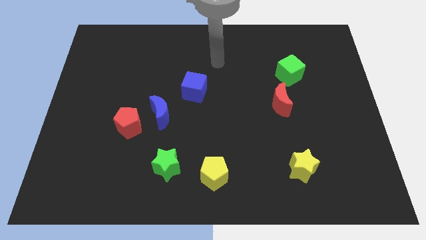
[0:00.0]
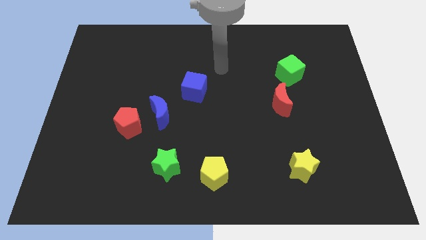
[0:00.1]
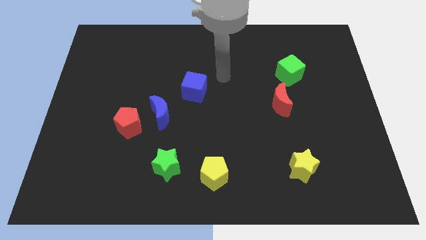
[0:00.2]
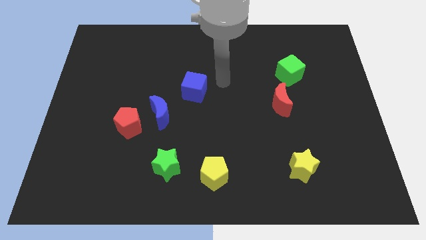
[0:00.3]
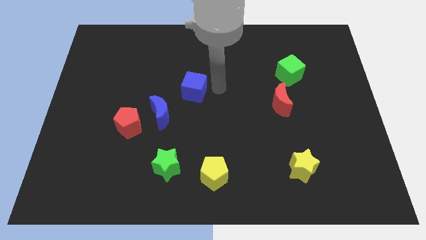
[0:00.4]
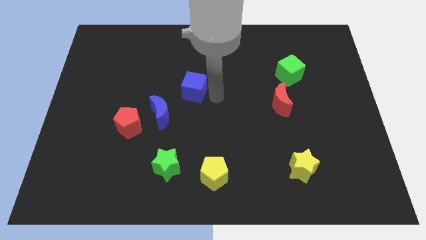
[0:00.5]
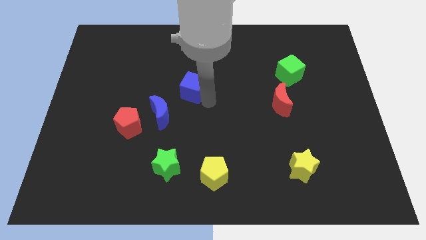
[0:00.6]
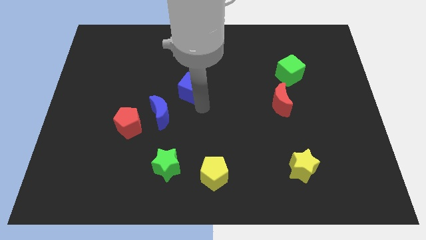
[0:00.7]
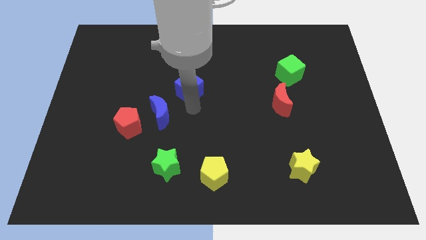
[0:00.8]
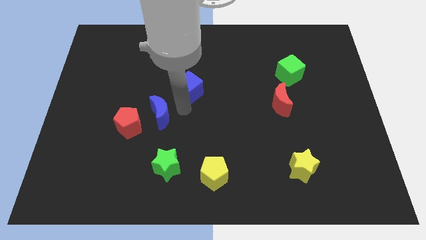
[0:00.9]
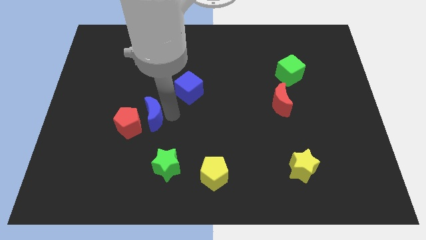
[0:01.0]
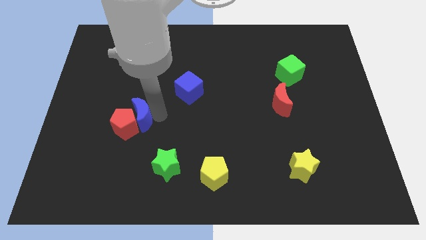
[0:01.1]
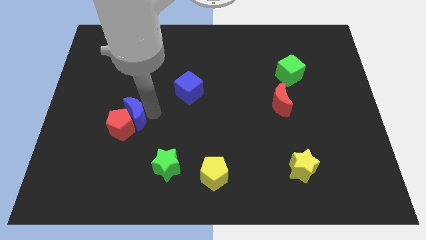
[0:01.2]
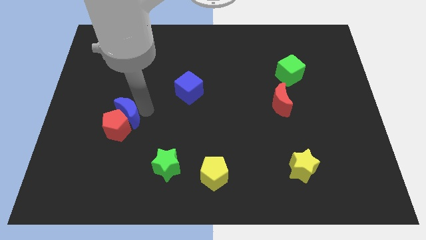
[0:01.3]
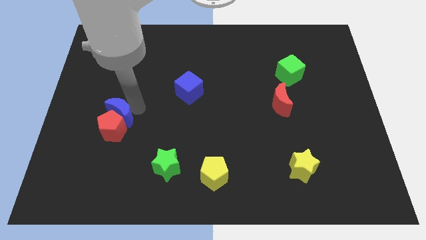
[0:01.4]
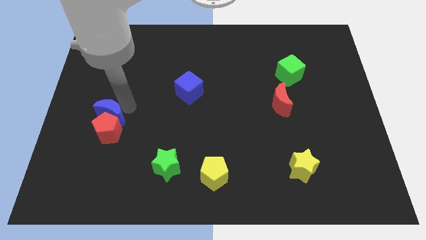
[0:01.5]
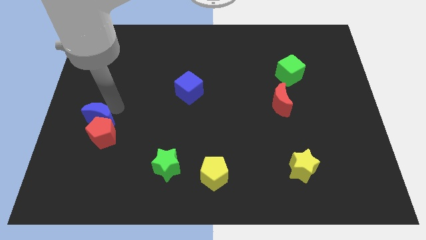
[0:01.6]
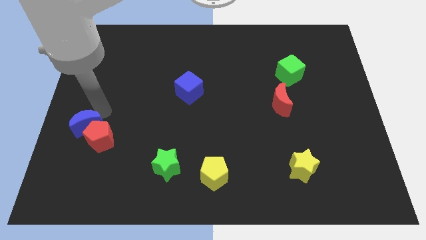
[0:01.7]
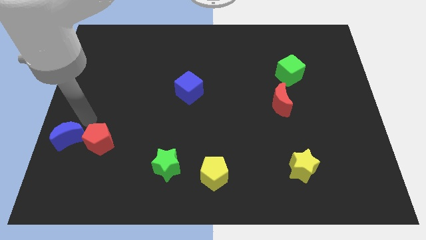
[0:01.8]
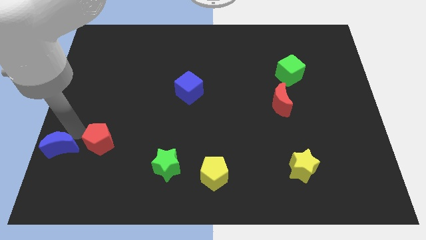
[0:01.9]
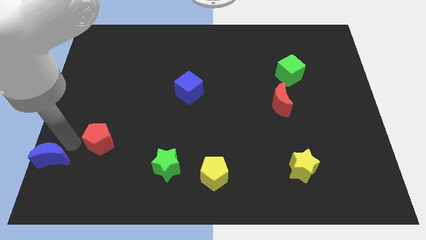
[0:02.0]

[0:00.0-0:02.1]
move the red pentagon away from the blue moon

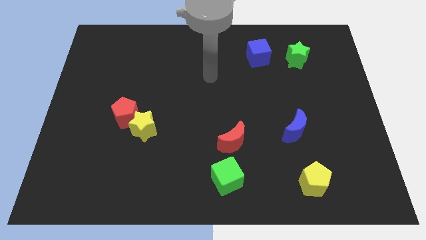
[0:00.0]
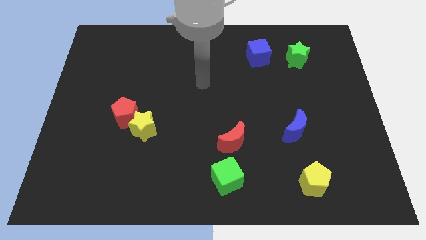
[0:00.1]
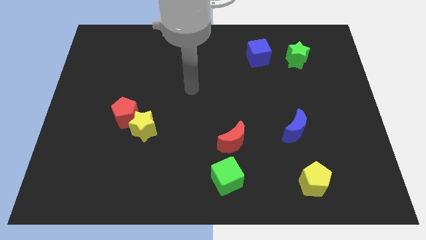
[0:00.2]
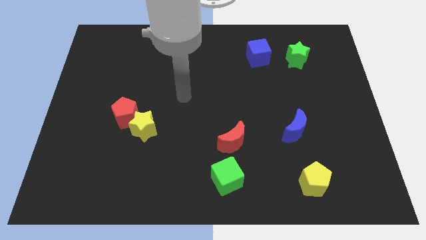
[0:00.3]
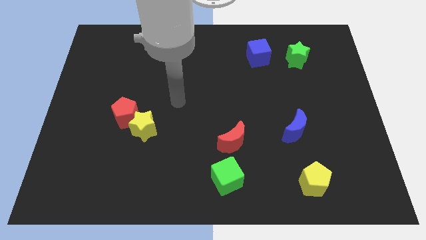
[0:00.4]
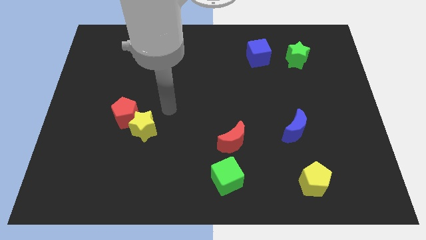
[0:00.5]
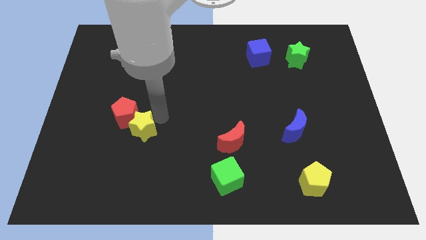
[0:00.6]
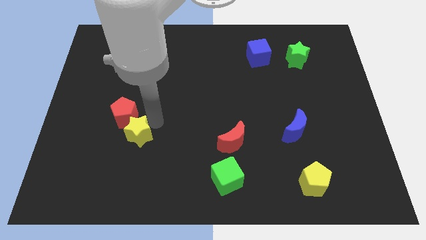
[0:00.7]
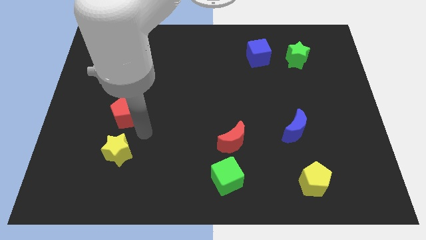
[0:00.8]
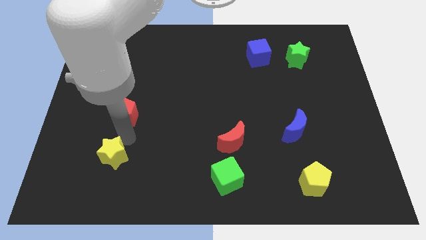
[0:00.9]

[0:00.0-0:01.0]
move the red pentagon away from the yellow star

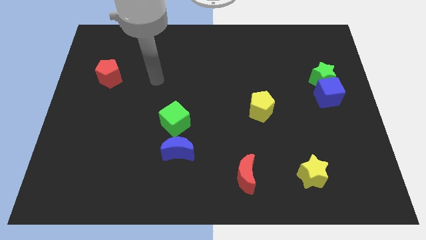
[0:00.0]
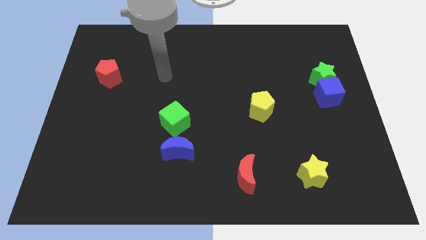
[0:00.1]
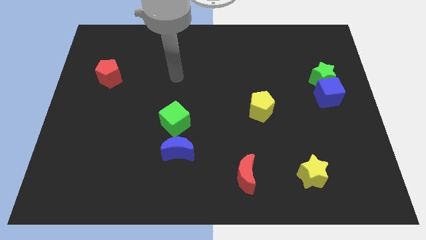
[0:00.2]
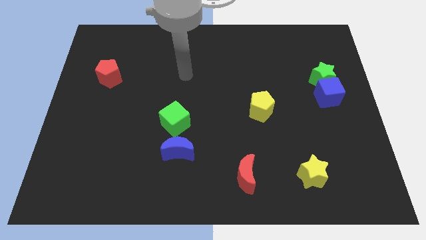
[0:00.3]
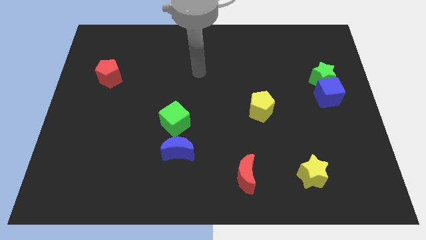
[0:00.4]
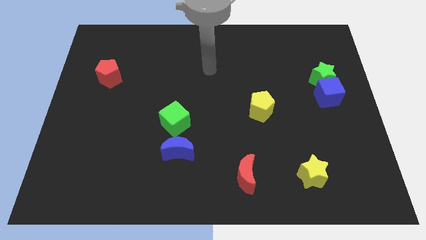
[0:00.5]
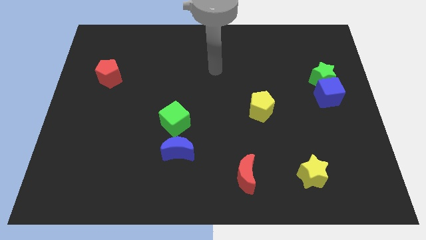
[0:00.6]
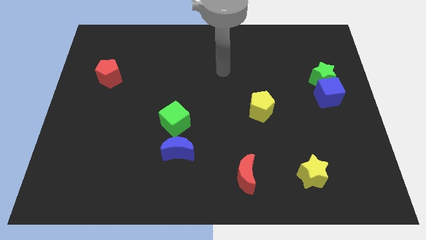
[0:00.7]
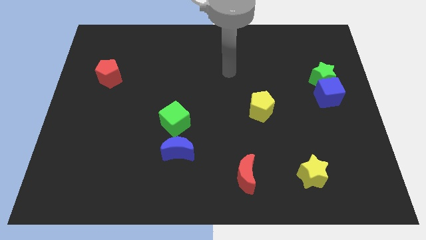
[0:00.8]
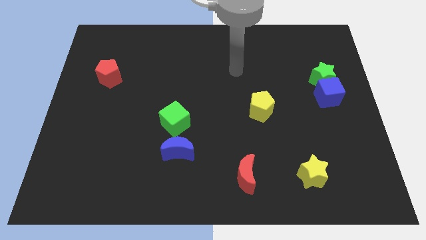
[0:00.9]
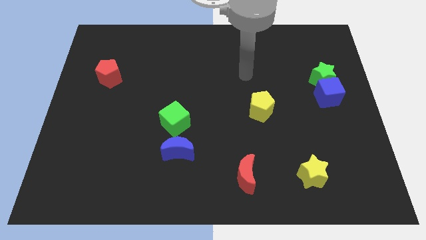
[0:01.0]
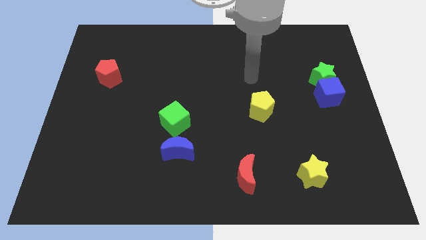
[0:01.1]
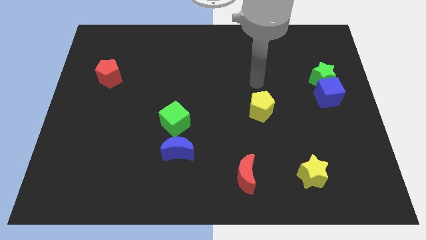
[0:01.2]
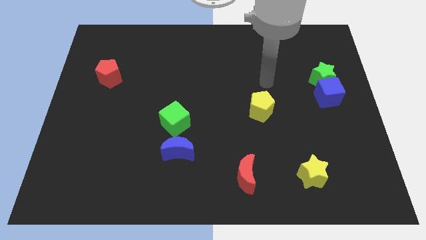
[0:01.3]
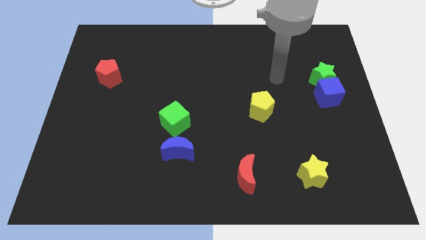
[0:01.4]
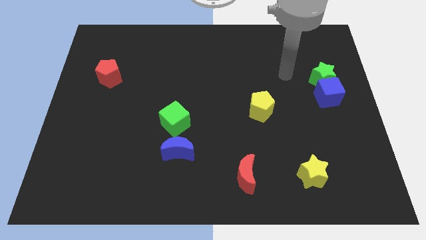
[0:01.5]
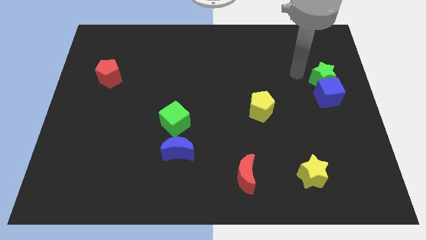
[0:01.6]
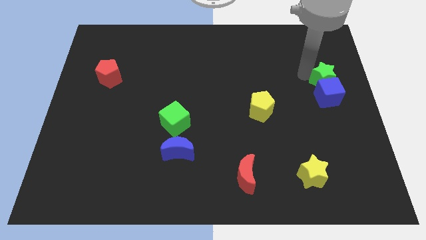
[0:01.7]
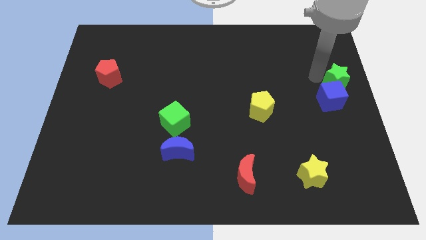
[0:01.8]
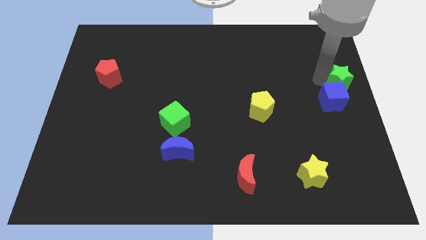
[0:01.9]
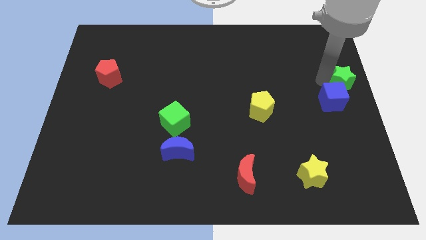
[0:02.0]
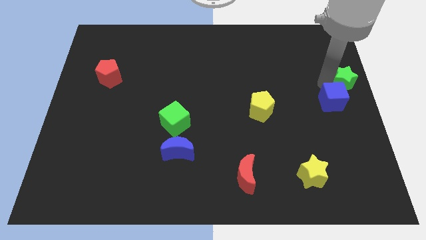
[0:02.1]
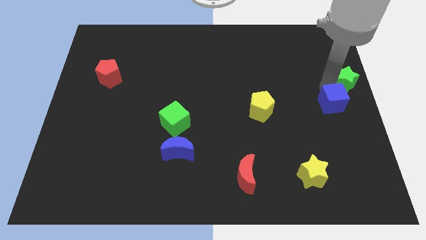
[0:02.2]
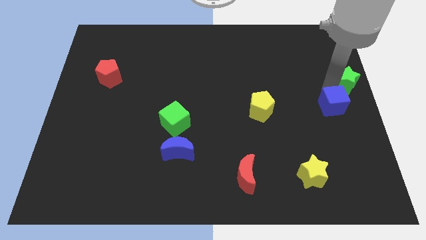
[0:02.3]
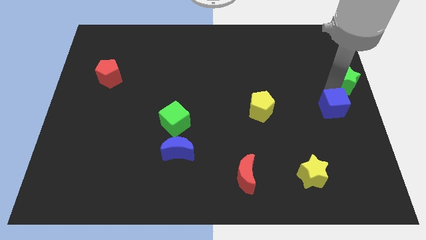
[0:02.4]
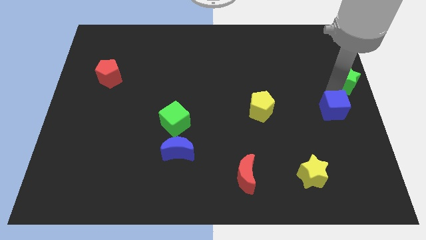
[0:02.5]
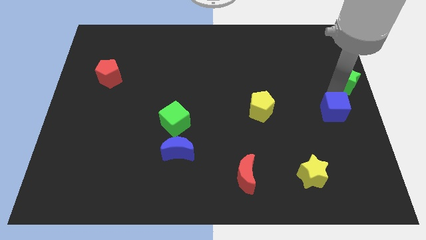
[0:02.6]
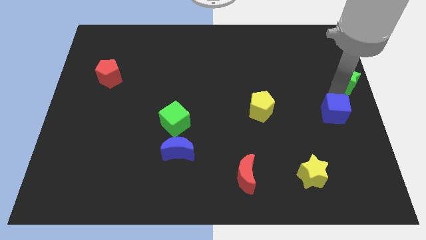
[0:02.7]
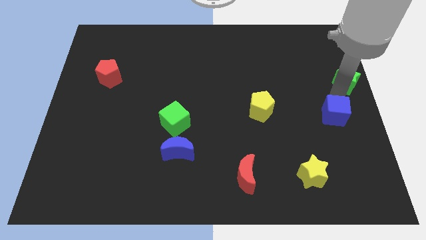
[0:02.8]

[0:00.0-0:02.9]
pull the blue cube apart from the green star

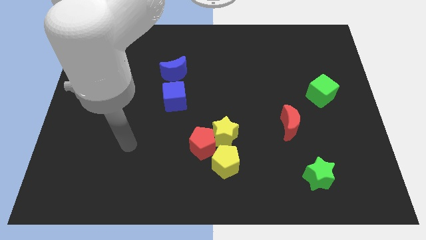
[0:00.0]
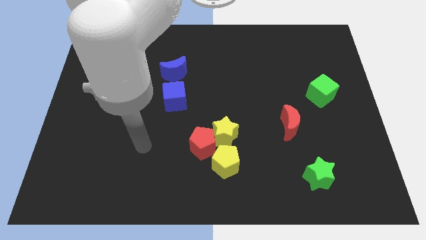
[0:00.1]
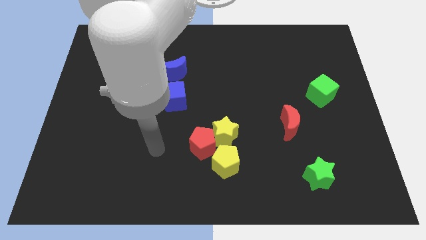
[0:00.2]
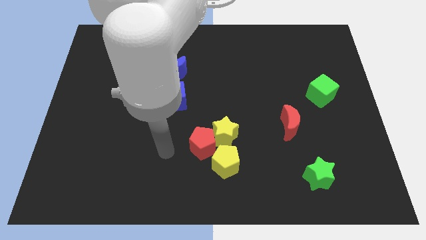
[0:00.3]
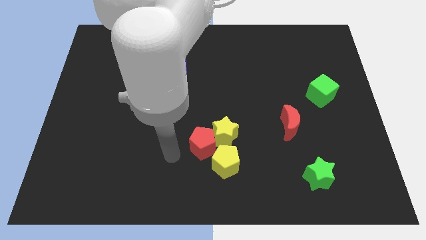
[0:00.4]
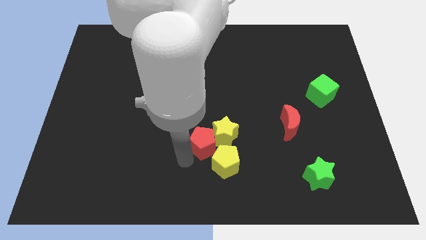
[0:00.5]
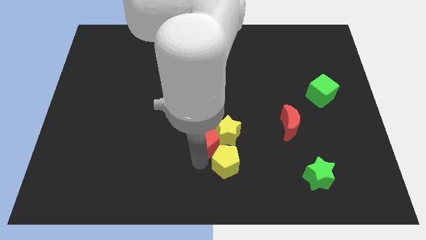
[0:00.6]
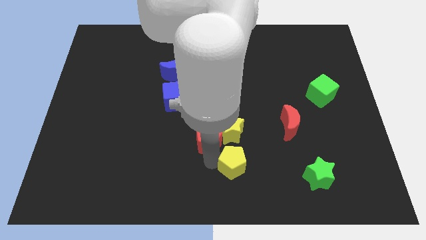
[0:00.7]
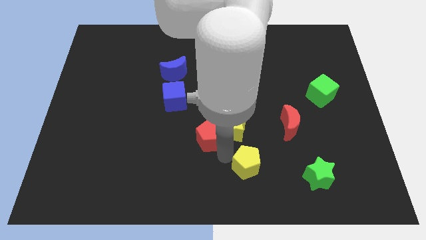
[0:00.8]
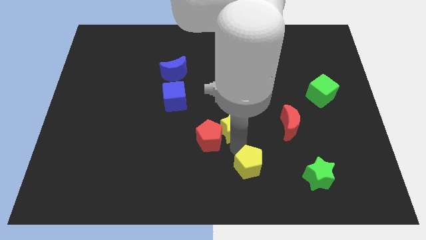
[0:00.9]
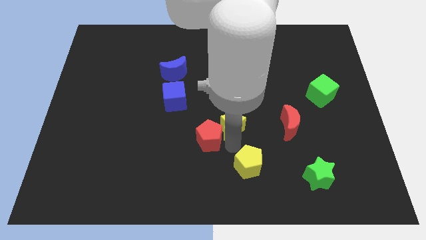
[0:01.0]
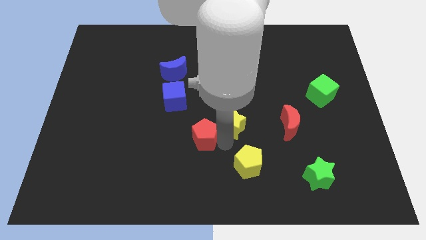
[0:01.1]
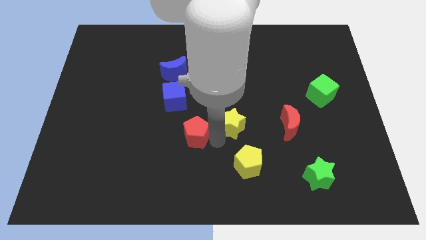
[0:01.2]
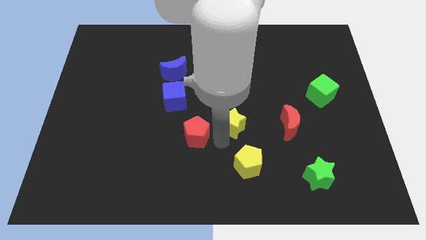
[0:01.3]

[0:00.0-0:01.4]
separate the red pentagon from the yellow star and yellow pentagon

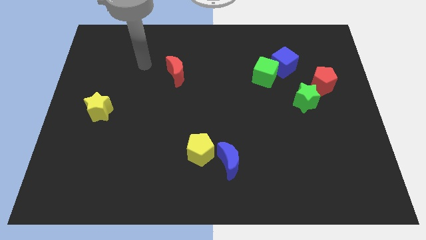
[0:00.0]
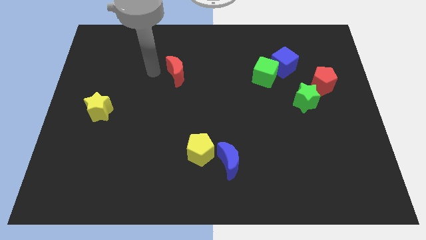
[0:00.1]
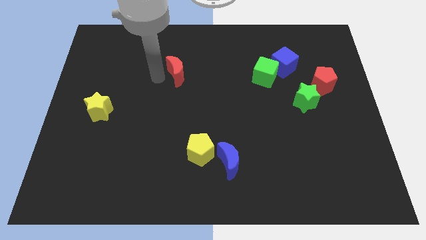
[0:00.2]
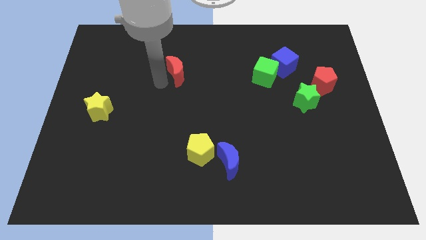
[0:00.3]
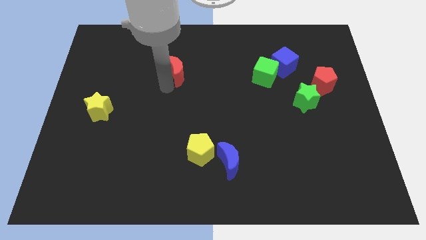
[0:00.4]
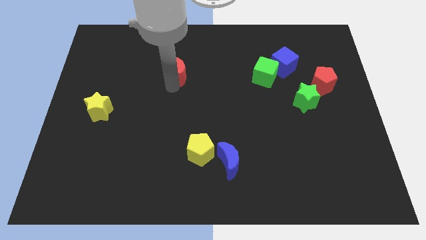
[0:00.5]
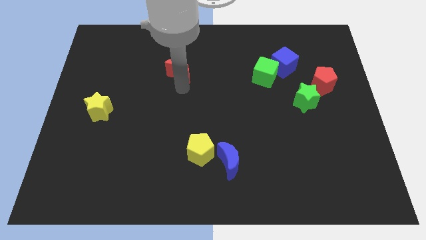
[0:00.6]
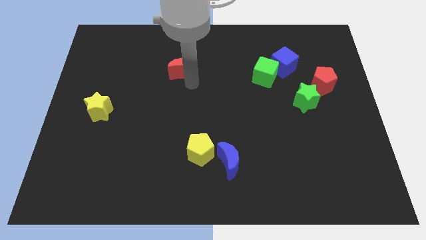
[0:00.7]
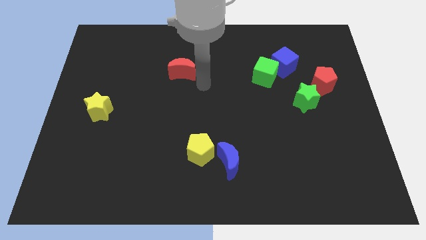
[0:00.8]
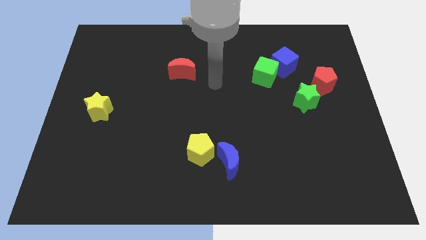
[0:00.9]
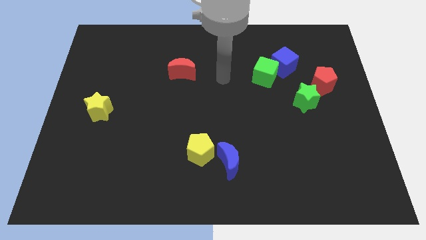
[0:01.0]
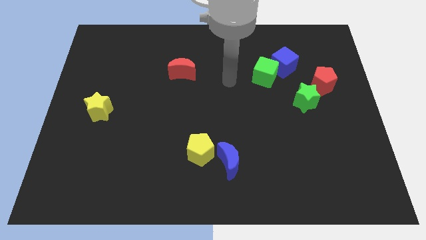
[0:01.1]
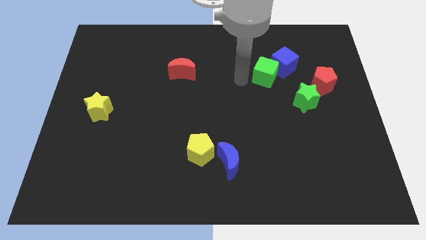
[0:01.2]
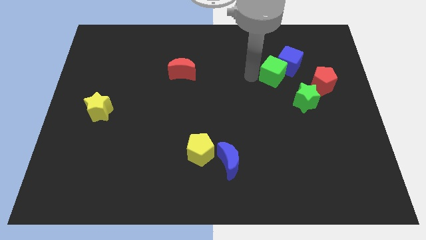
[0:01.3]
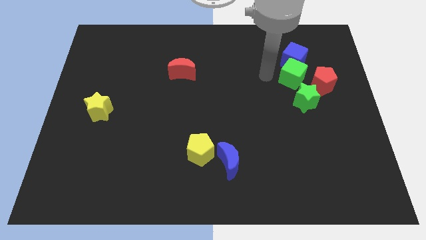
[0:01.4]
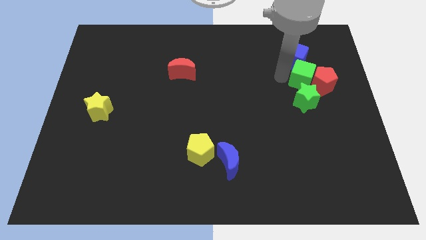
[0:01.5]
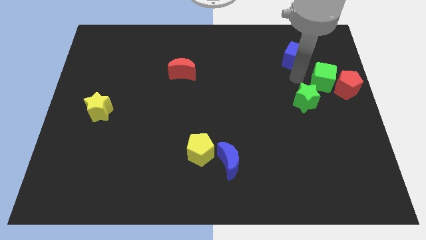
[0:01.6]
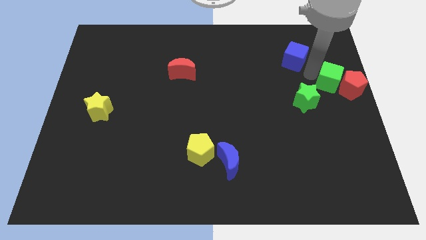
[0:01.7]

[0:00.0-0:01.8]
separate the blue cube from the green cube

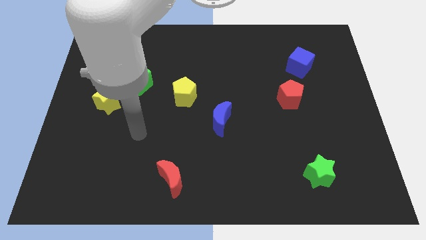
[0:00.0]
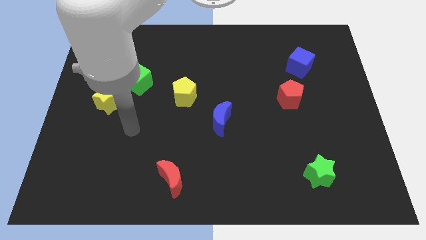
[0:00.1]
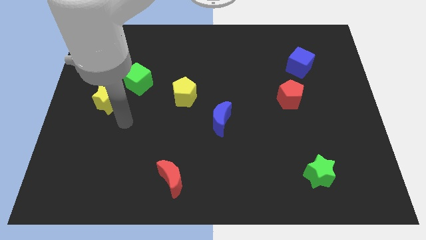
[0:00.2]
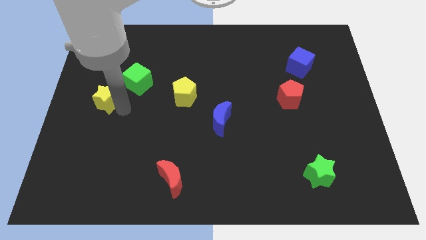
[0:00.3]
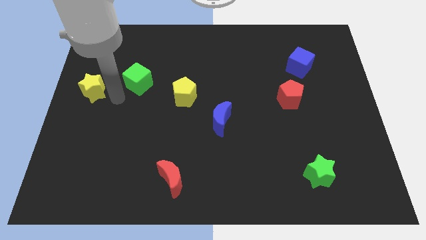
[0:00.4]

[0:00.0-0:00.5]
move the green cube away from the yellow star
